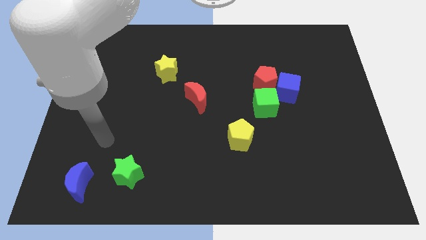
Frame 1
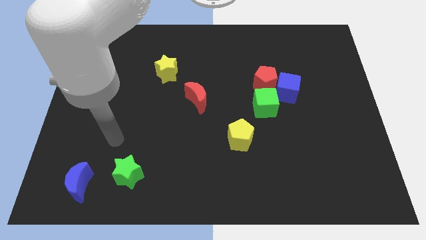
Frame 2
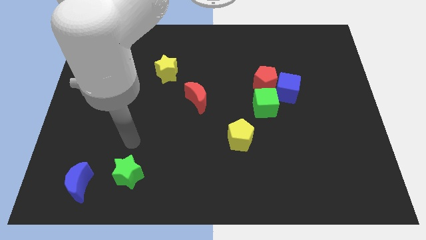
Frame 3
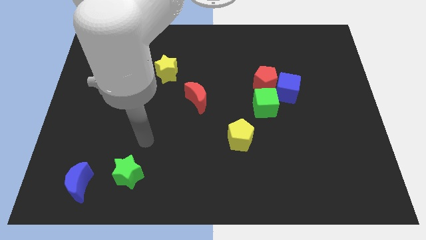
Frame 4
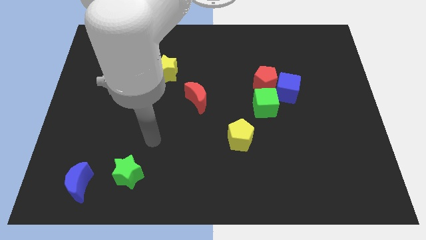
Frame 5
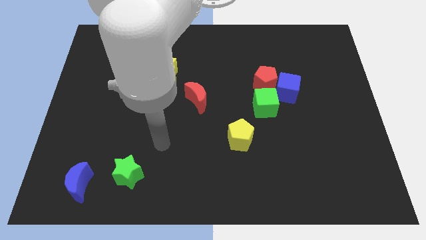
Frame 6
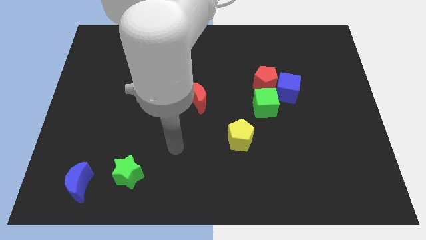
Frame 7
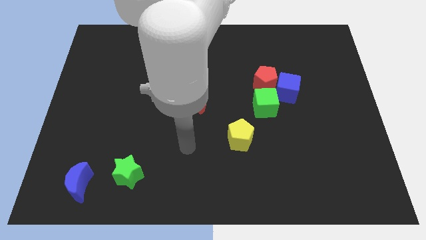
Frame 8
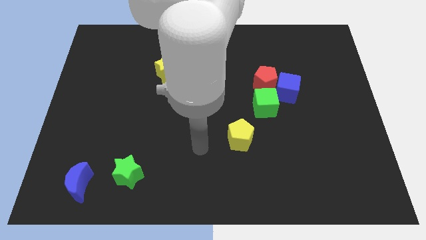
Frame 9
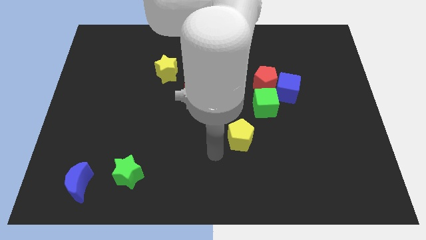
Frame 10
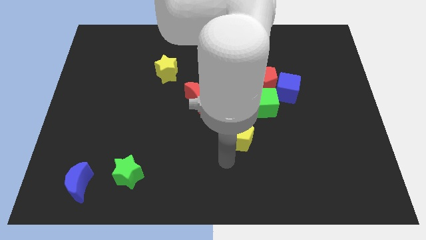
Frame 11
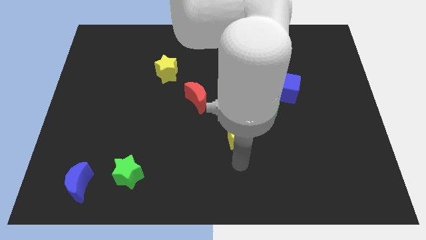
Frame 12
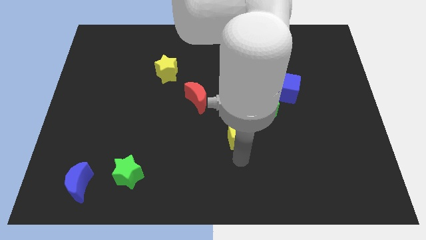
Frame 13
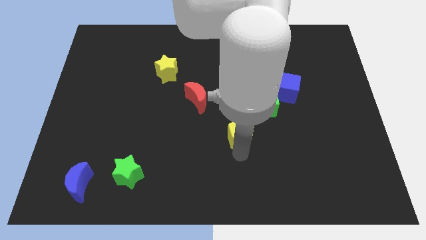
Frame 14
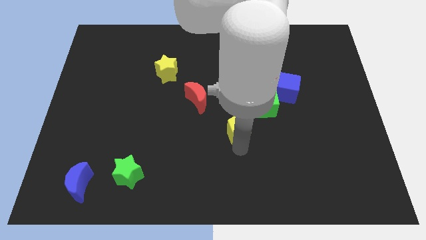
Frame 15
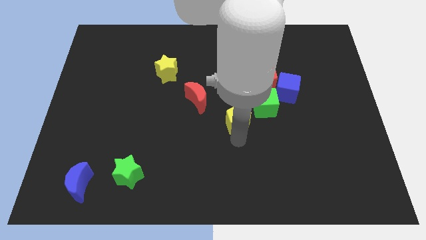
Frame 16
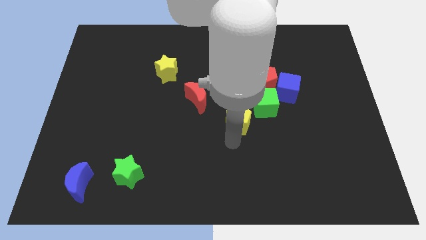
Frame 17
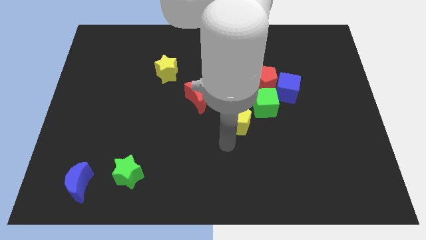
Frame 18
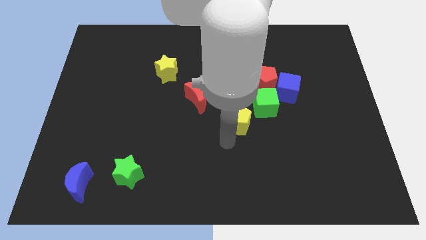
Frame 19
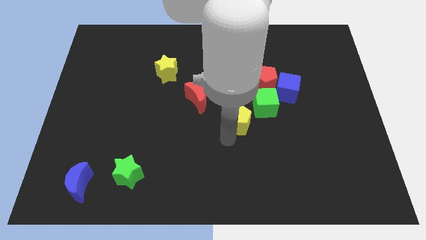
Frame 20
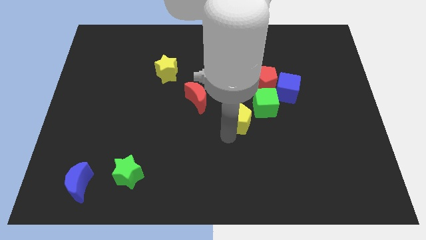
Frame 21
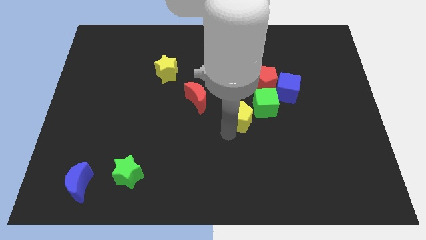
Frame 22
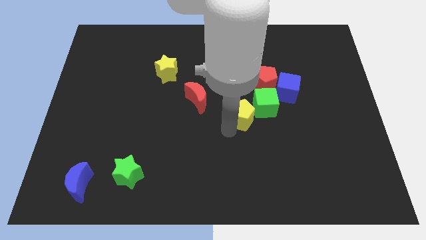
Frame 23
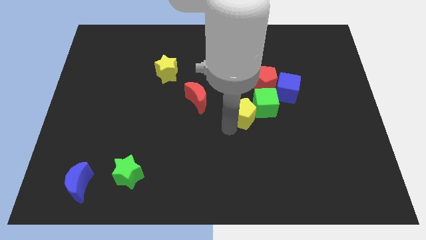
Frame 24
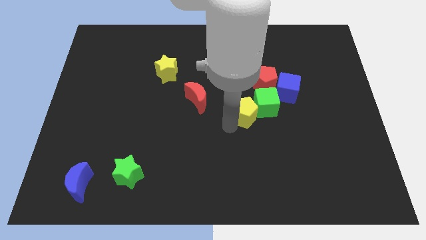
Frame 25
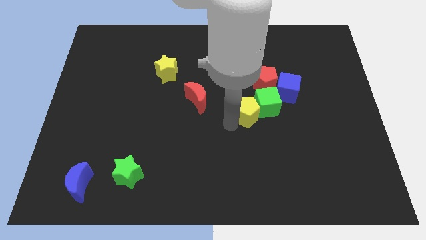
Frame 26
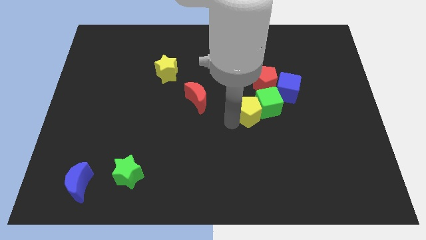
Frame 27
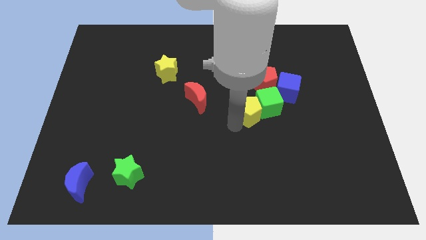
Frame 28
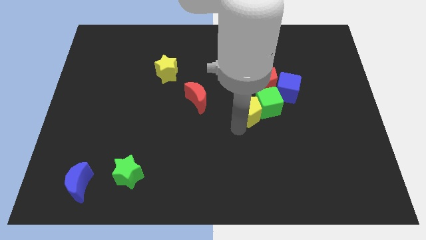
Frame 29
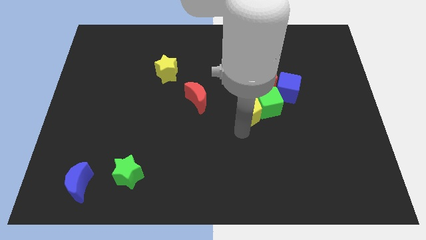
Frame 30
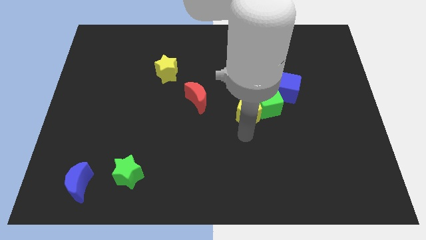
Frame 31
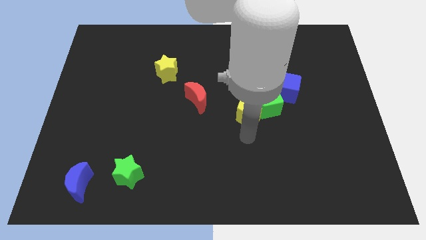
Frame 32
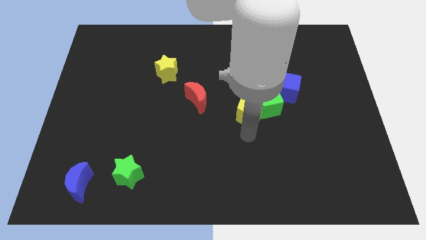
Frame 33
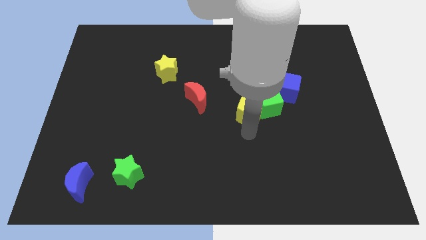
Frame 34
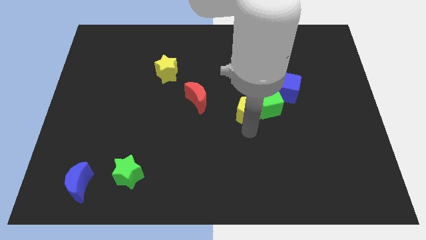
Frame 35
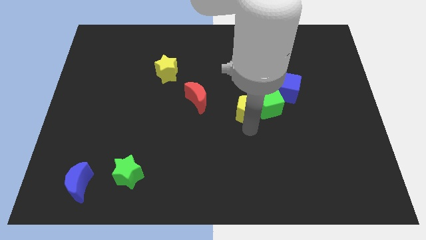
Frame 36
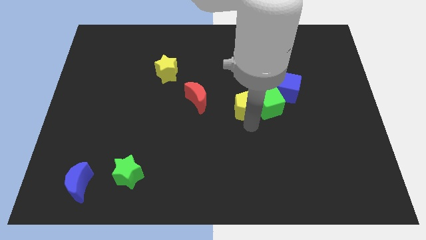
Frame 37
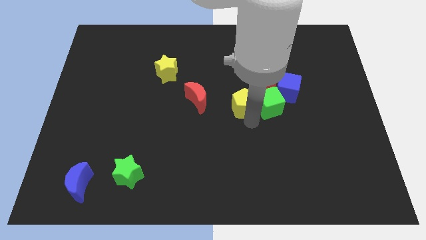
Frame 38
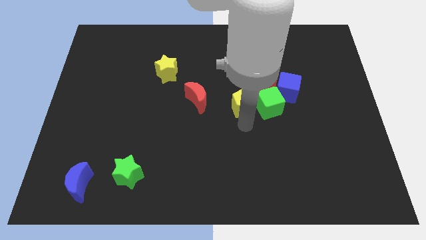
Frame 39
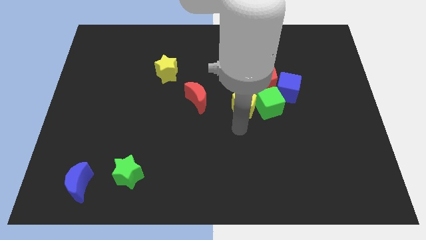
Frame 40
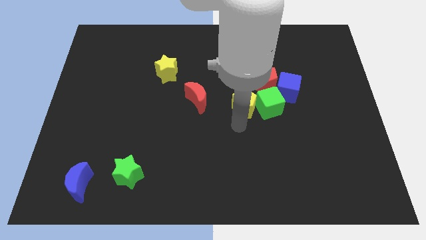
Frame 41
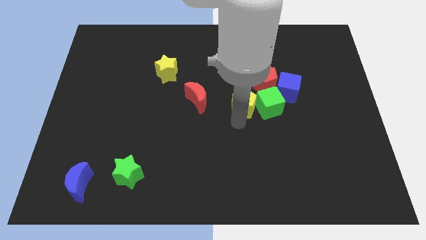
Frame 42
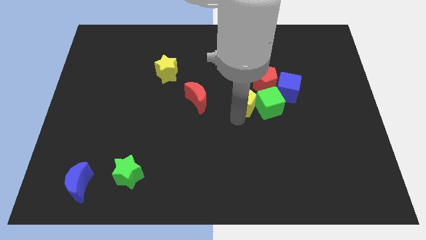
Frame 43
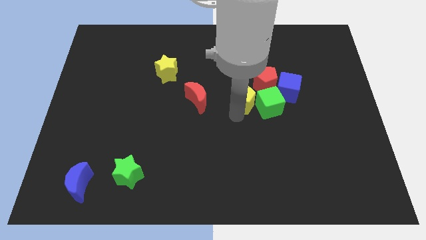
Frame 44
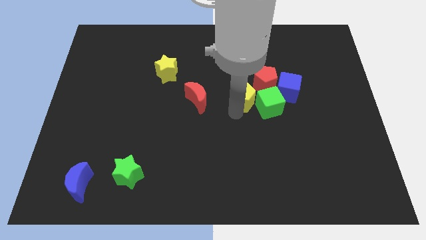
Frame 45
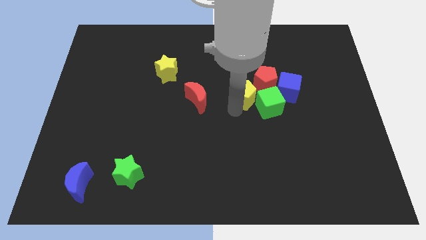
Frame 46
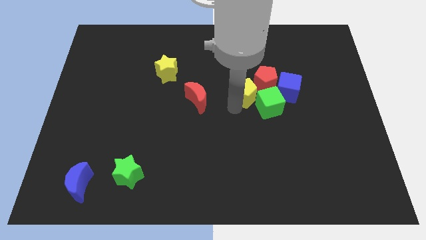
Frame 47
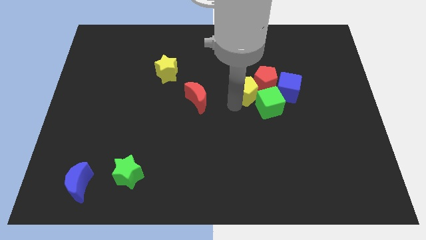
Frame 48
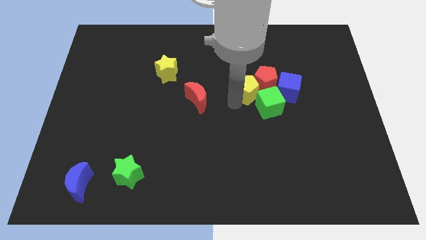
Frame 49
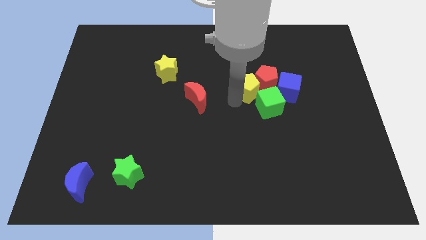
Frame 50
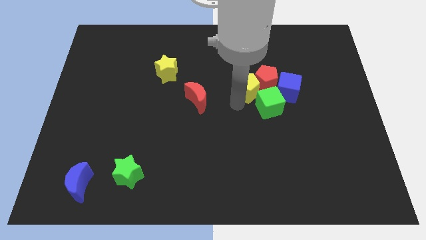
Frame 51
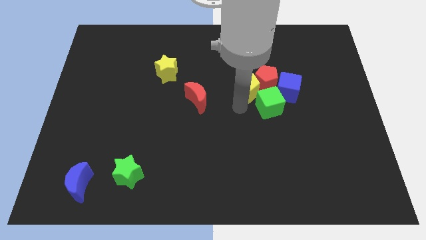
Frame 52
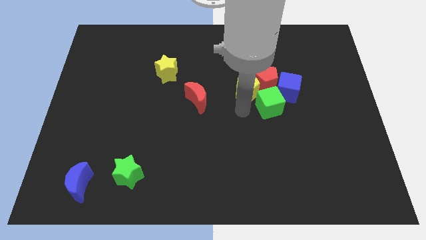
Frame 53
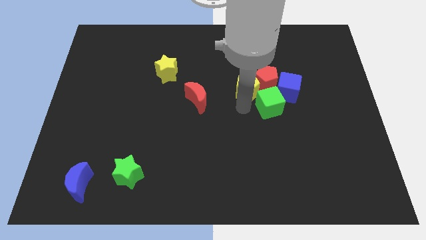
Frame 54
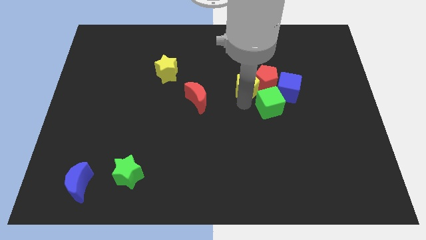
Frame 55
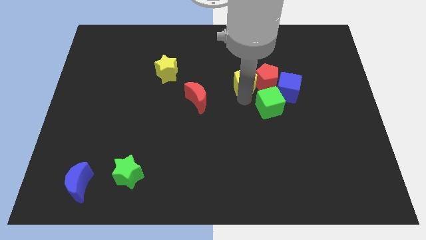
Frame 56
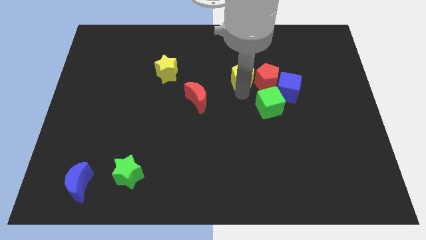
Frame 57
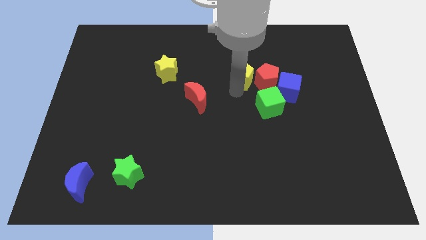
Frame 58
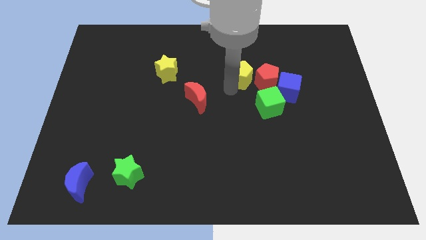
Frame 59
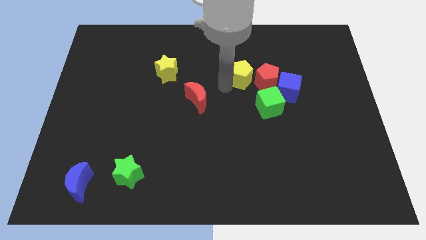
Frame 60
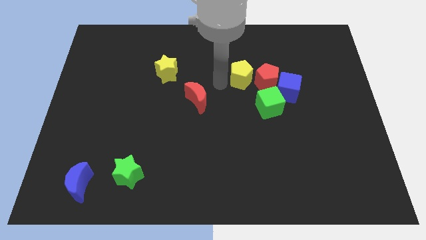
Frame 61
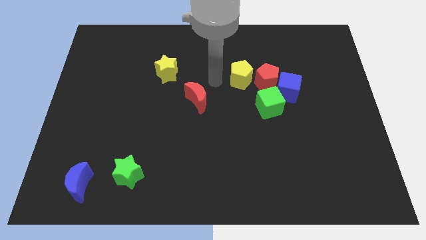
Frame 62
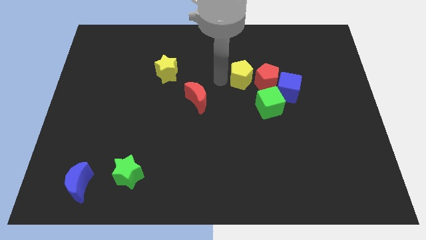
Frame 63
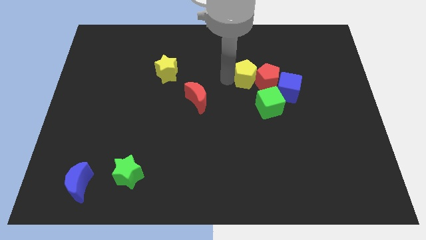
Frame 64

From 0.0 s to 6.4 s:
slide the yellow pentagon to the top left of the blue cube

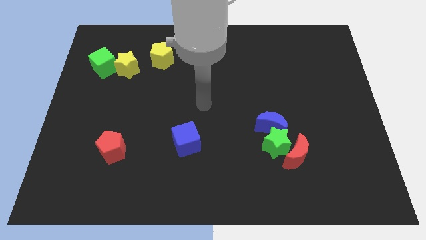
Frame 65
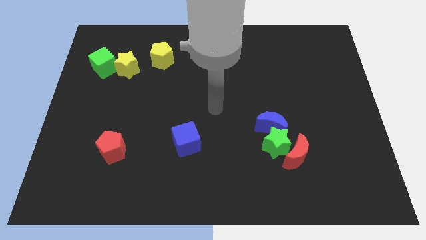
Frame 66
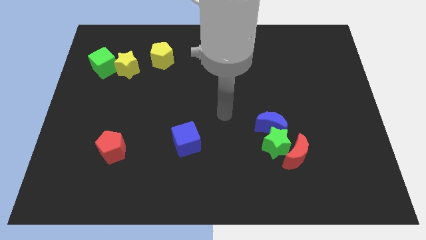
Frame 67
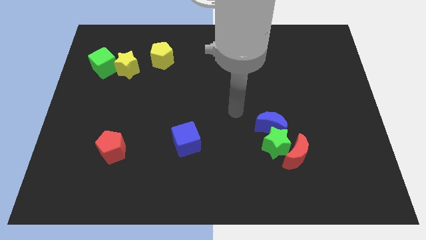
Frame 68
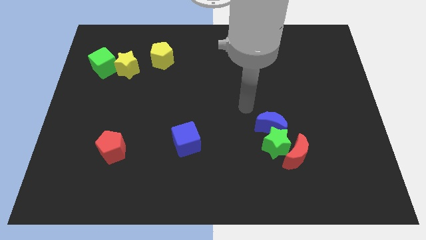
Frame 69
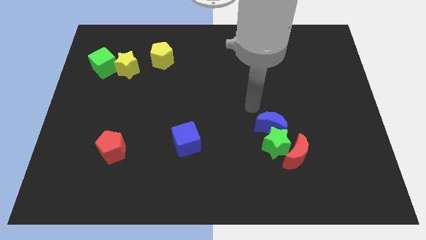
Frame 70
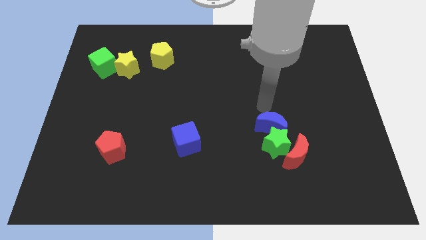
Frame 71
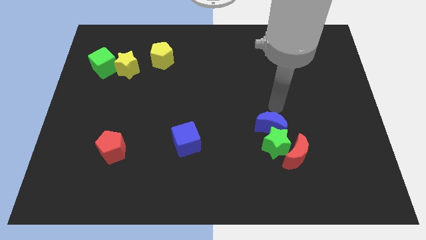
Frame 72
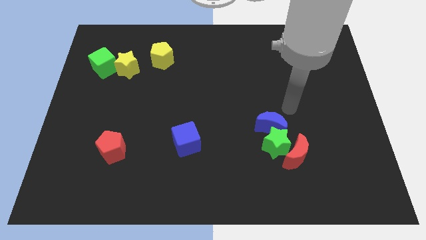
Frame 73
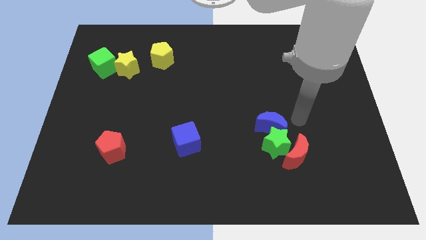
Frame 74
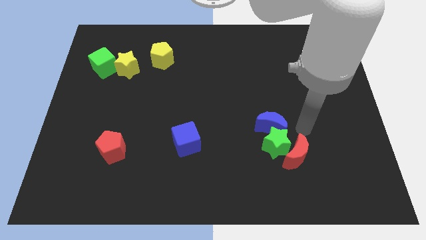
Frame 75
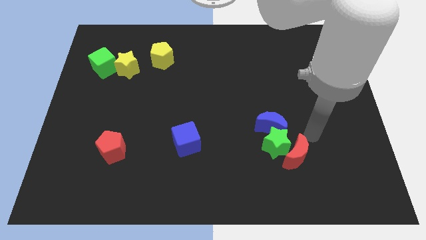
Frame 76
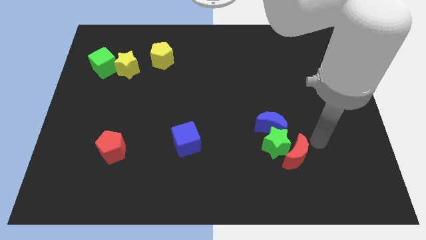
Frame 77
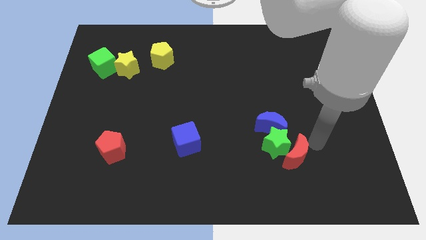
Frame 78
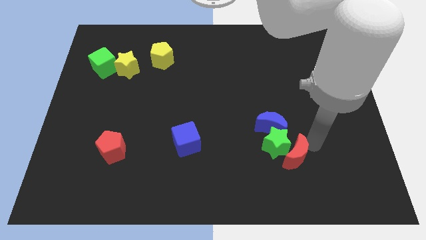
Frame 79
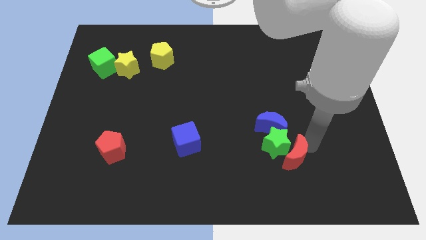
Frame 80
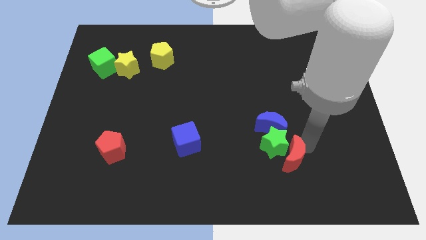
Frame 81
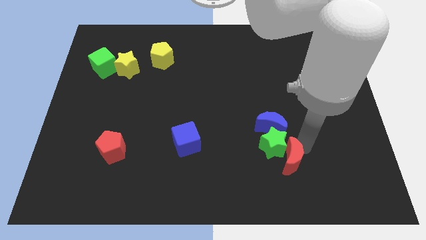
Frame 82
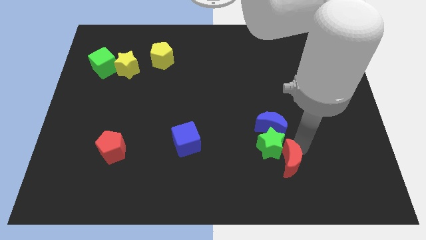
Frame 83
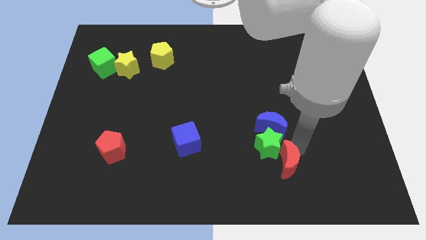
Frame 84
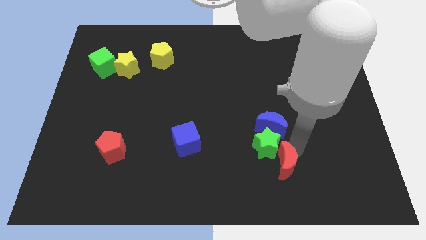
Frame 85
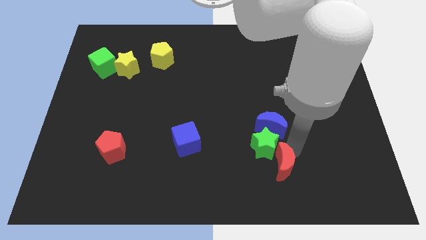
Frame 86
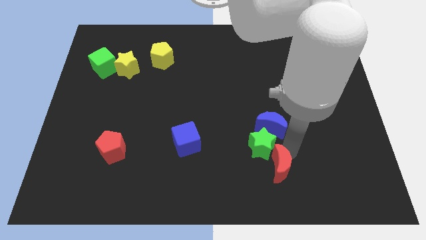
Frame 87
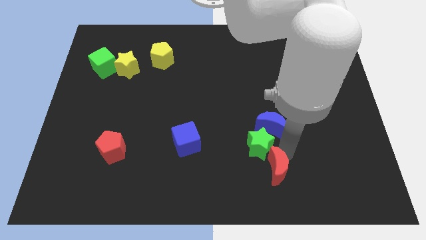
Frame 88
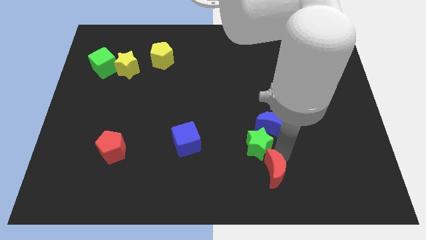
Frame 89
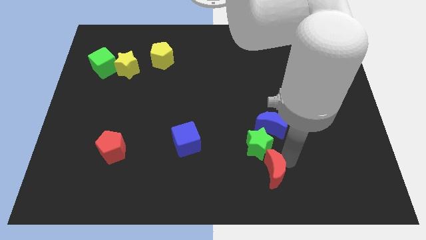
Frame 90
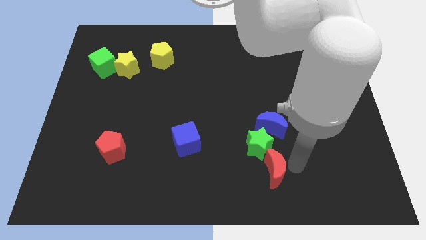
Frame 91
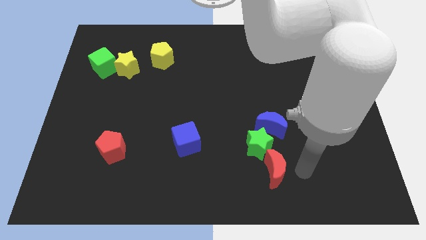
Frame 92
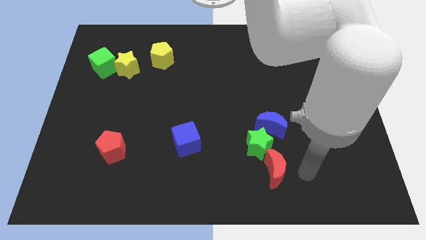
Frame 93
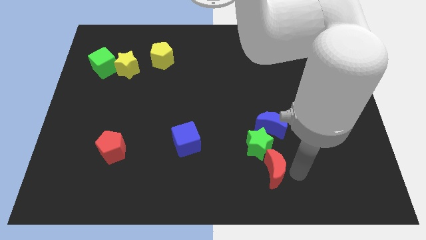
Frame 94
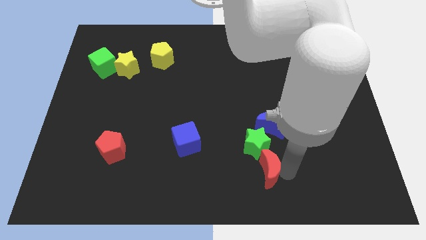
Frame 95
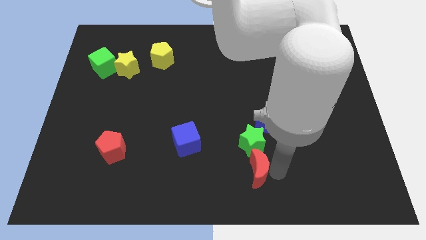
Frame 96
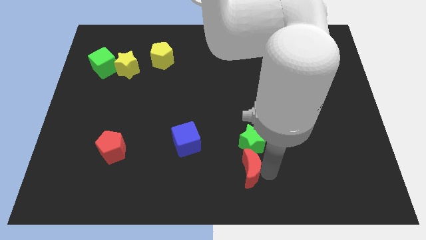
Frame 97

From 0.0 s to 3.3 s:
slide the red moon to the bottom left of the green star
